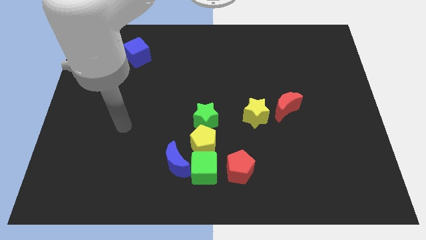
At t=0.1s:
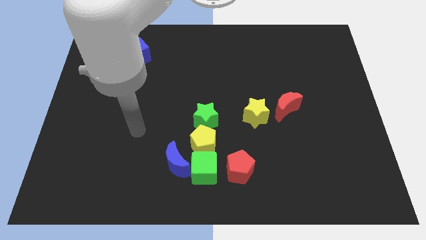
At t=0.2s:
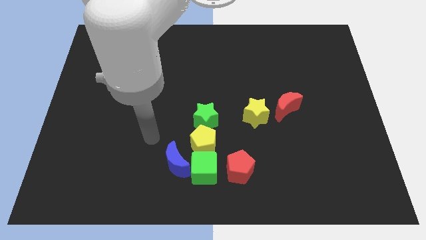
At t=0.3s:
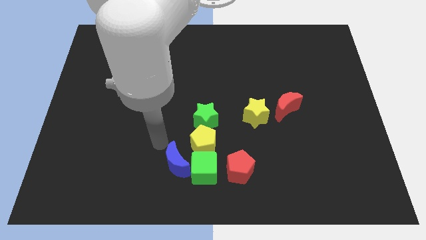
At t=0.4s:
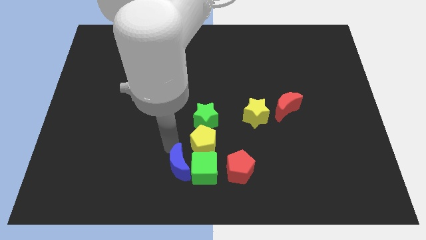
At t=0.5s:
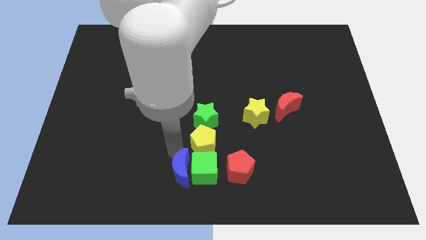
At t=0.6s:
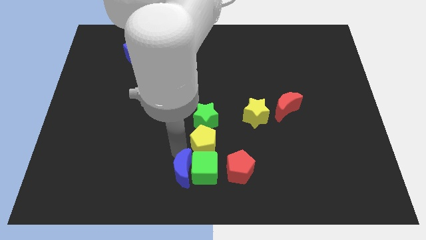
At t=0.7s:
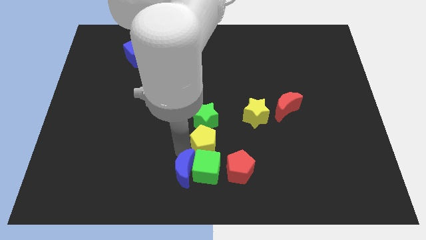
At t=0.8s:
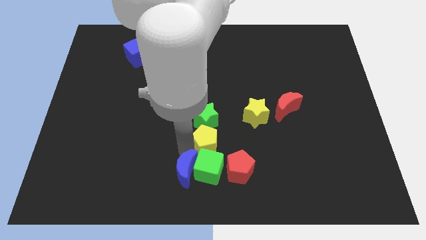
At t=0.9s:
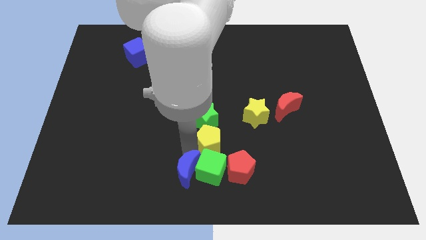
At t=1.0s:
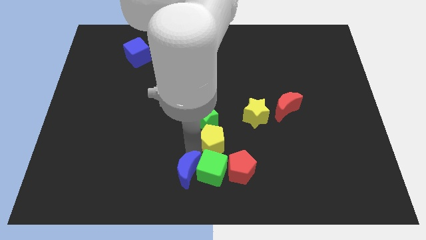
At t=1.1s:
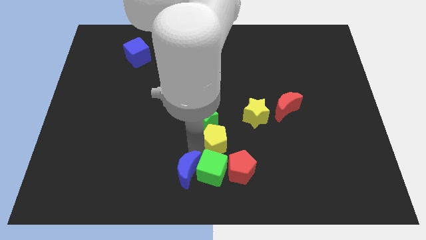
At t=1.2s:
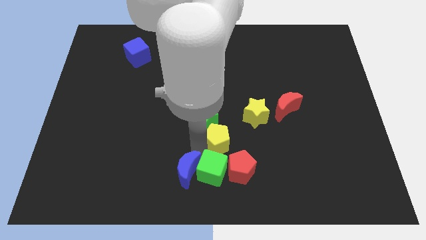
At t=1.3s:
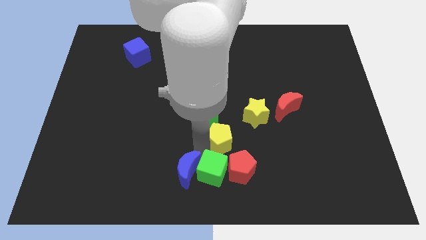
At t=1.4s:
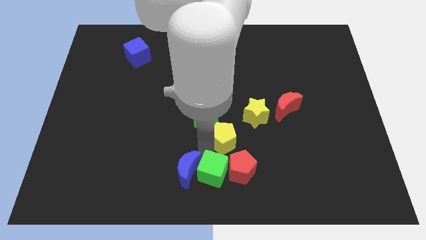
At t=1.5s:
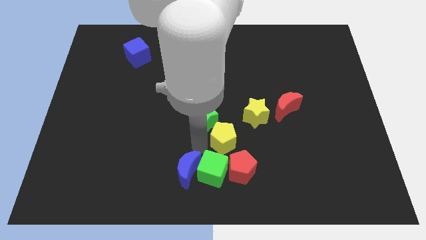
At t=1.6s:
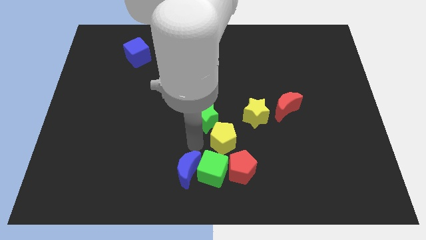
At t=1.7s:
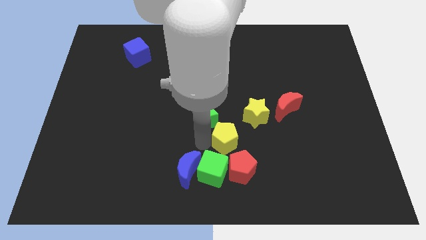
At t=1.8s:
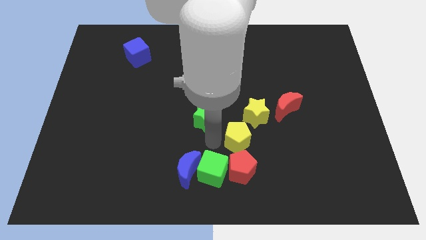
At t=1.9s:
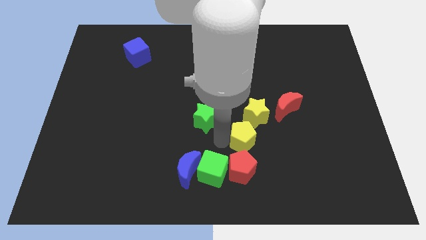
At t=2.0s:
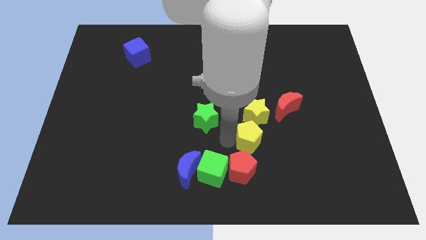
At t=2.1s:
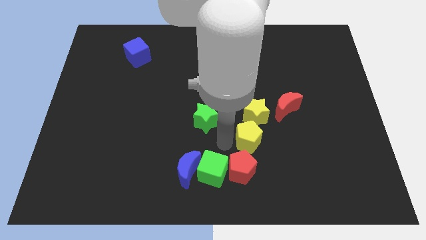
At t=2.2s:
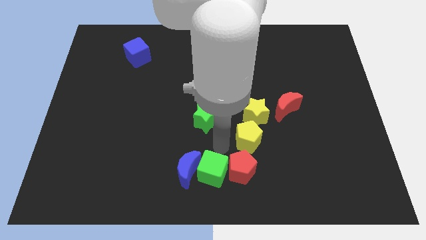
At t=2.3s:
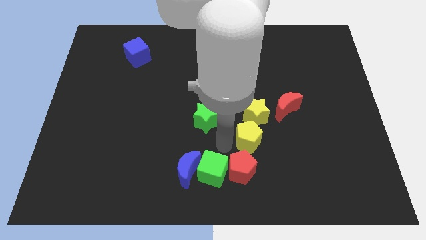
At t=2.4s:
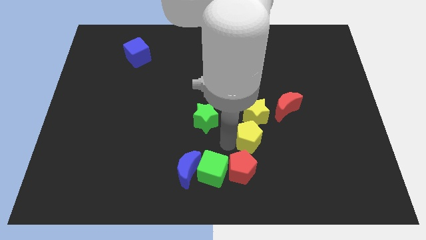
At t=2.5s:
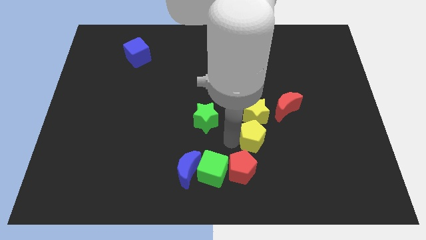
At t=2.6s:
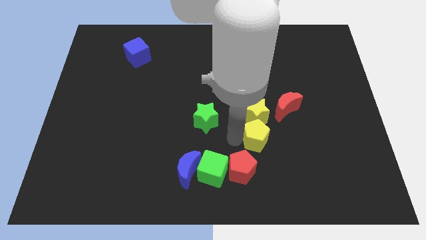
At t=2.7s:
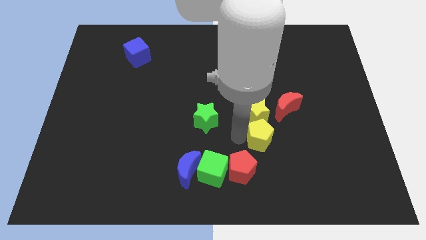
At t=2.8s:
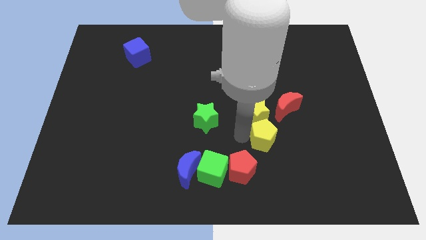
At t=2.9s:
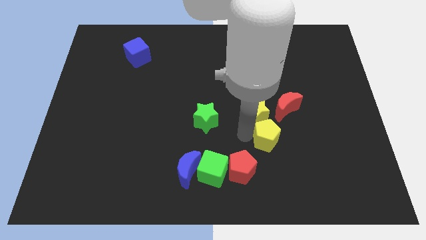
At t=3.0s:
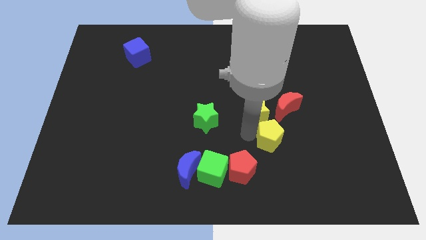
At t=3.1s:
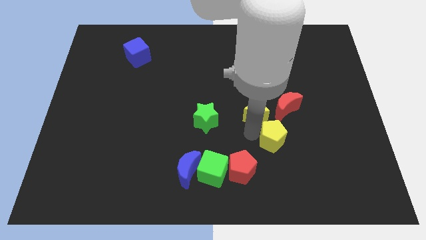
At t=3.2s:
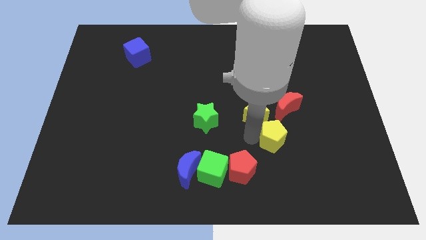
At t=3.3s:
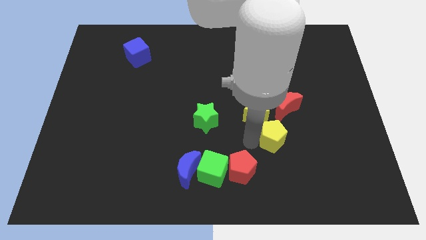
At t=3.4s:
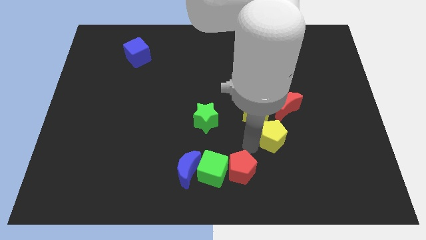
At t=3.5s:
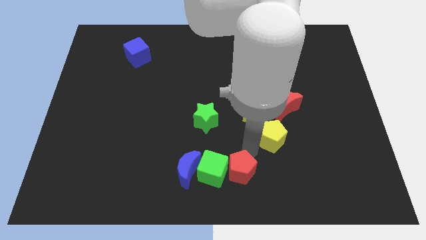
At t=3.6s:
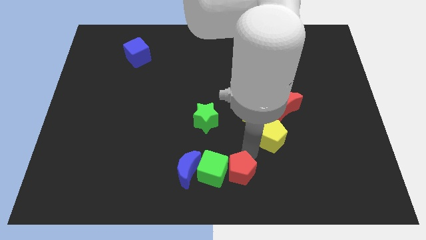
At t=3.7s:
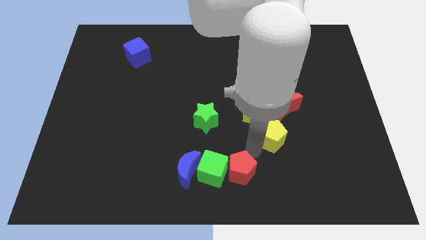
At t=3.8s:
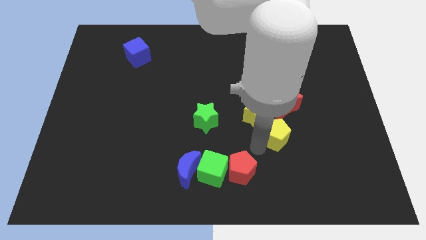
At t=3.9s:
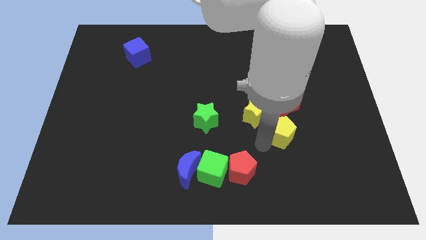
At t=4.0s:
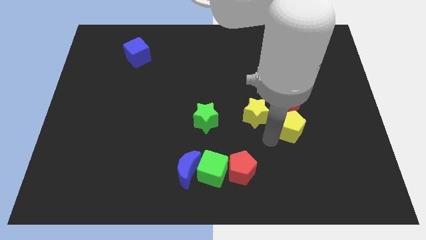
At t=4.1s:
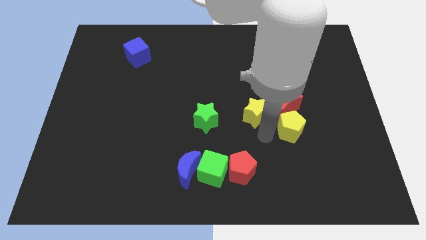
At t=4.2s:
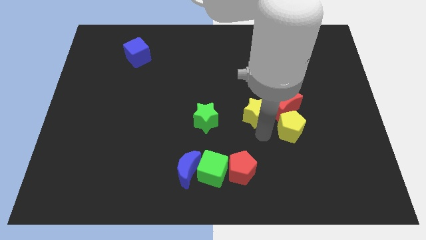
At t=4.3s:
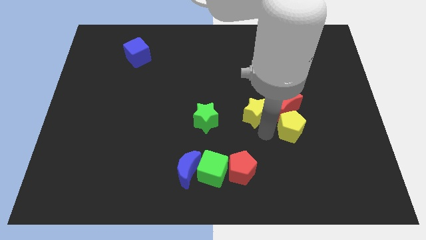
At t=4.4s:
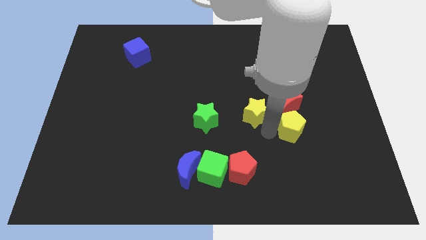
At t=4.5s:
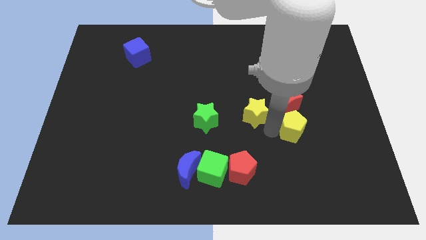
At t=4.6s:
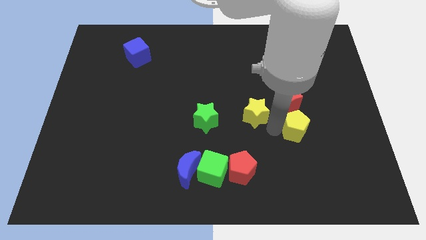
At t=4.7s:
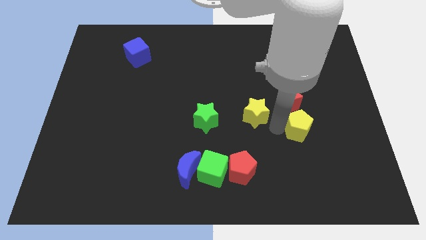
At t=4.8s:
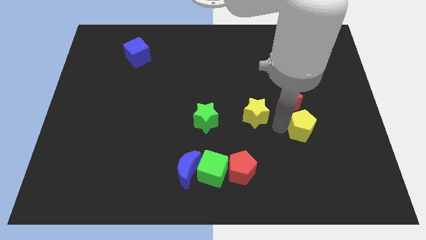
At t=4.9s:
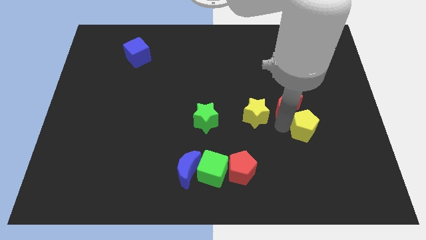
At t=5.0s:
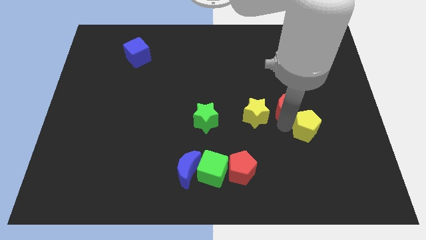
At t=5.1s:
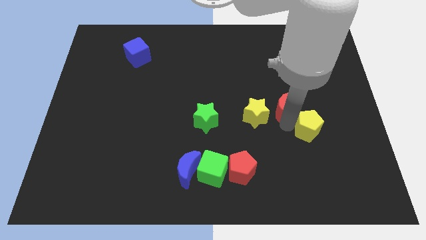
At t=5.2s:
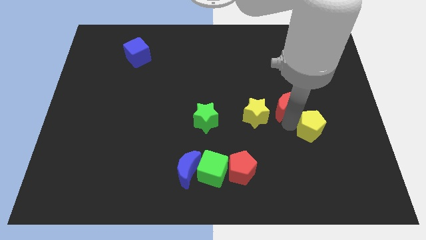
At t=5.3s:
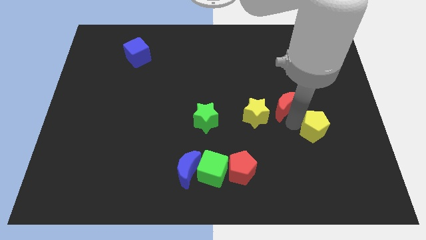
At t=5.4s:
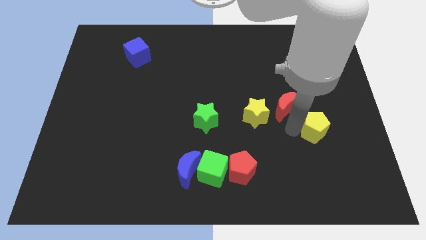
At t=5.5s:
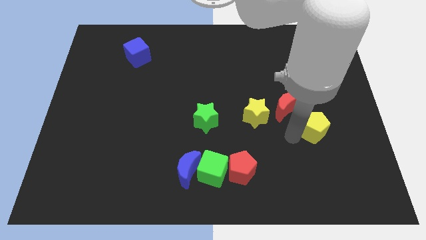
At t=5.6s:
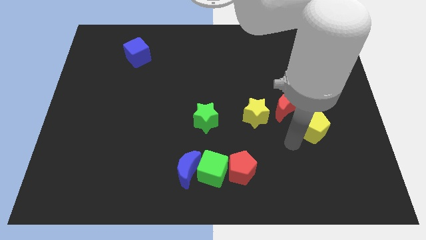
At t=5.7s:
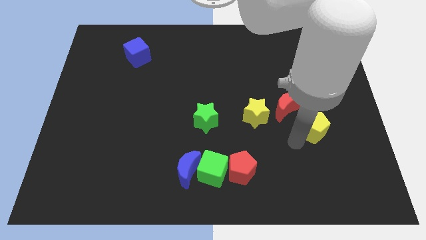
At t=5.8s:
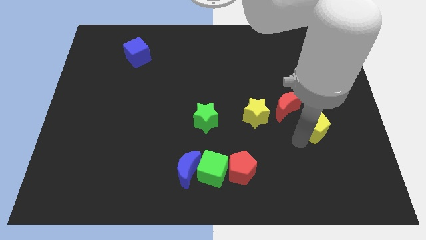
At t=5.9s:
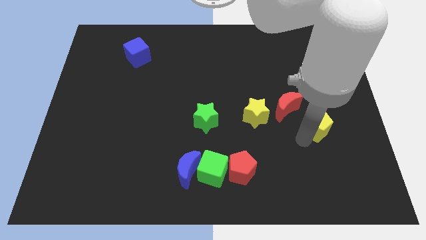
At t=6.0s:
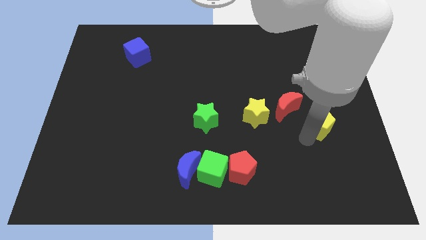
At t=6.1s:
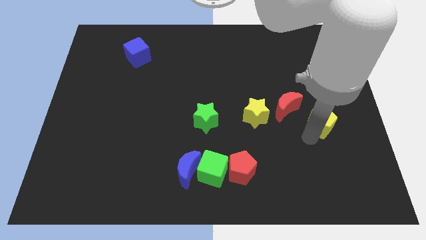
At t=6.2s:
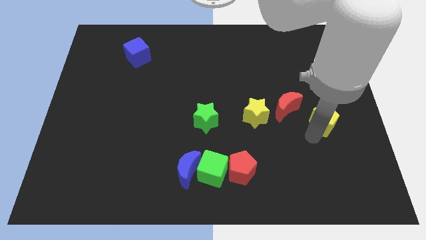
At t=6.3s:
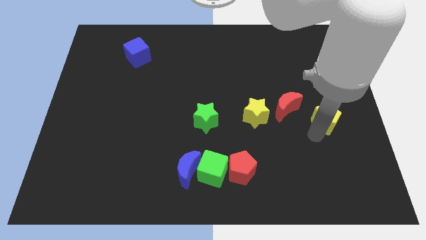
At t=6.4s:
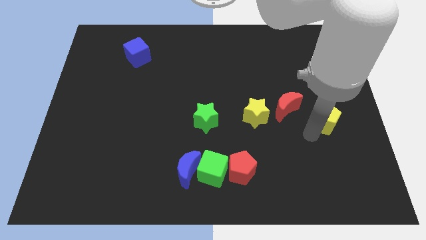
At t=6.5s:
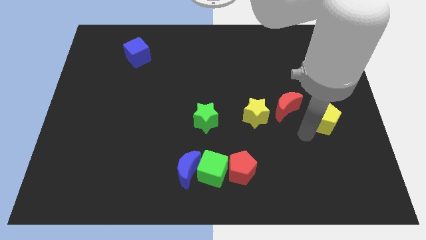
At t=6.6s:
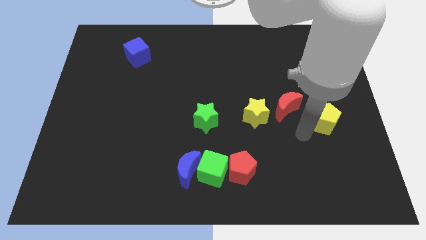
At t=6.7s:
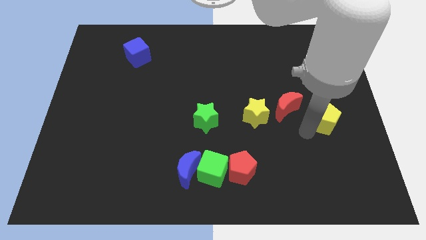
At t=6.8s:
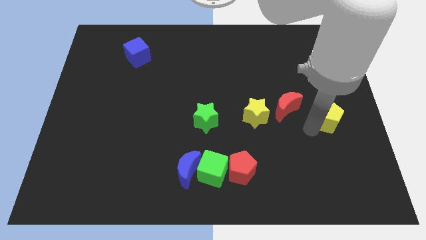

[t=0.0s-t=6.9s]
slide the yellow pentagon to the right side
